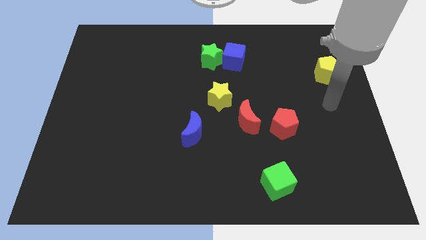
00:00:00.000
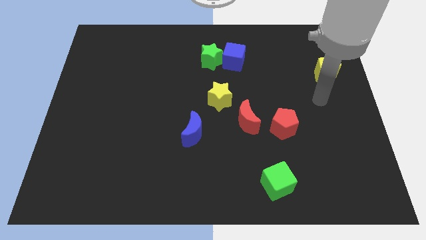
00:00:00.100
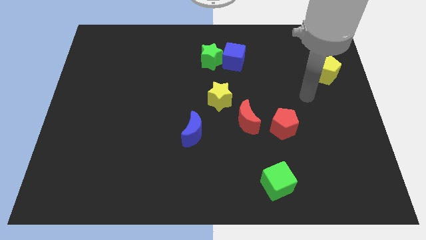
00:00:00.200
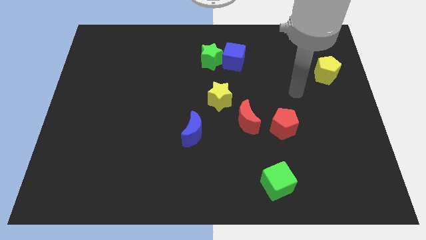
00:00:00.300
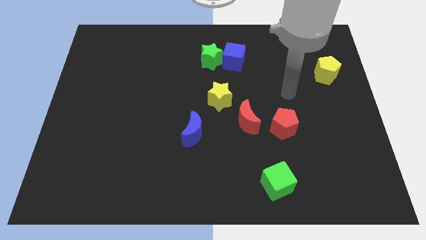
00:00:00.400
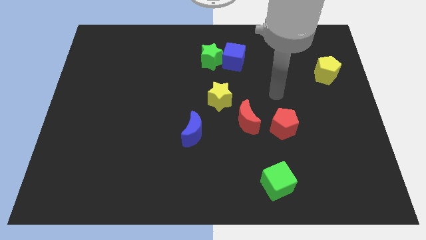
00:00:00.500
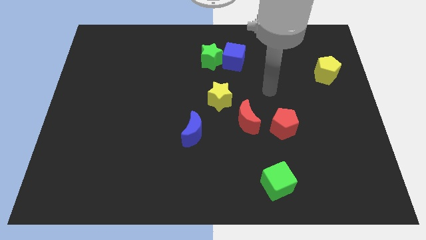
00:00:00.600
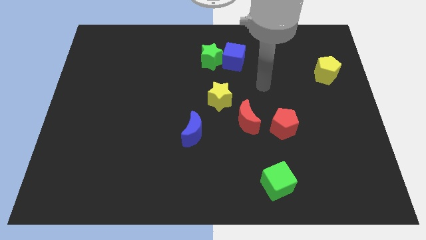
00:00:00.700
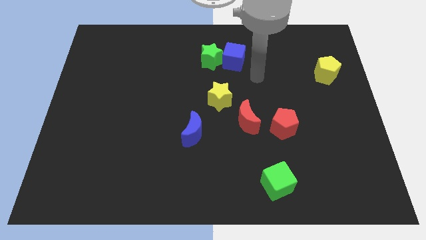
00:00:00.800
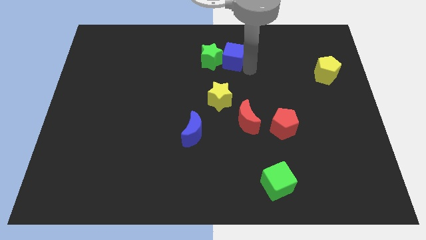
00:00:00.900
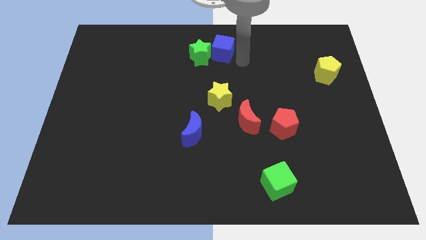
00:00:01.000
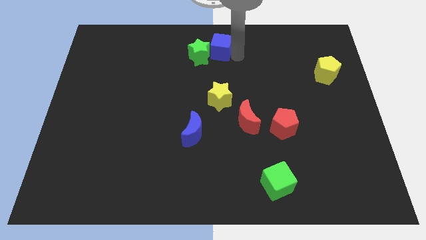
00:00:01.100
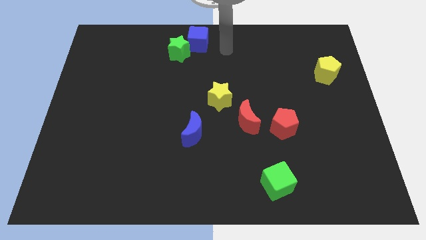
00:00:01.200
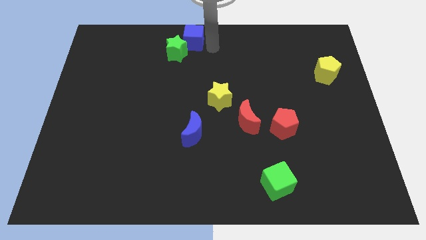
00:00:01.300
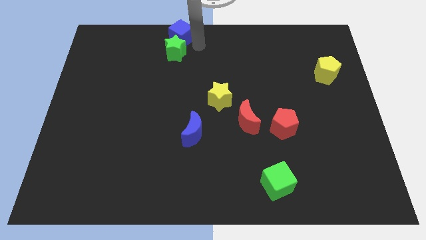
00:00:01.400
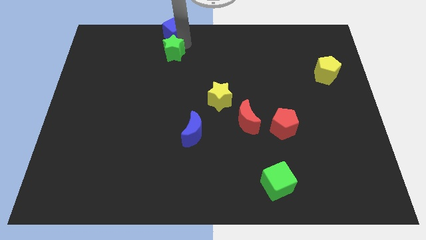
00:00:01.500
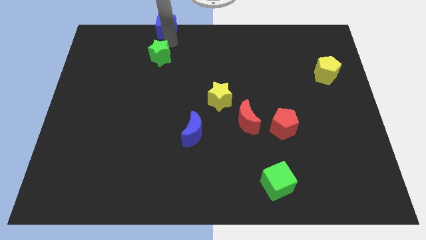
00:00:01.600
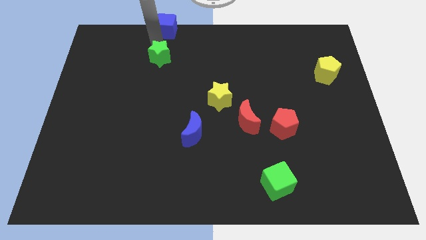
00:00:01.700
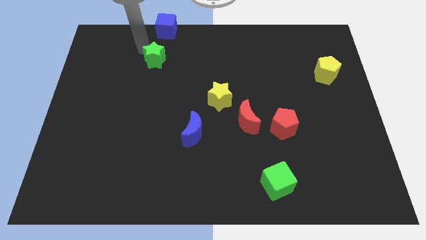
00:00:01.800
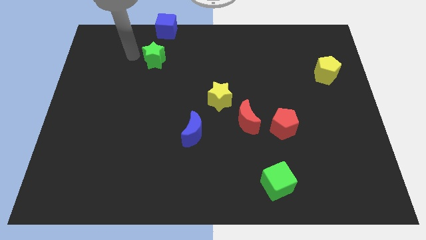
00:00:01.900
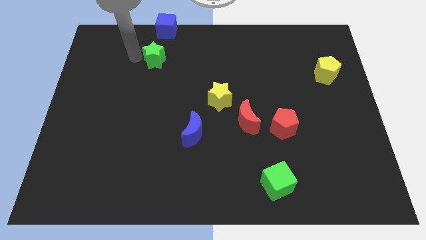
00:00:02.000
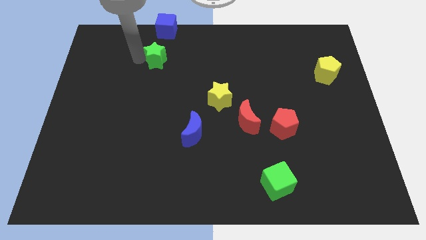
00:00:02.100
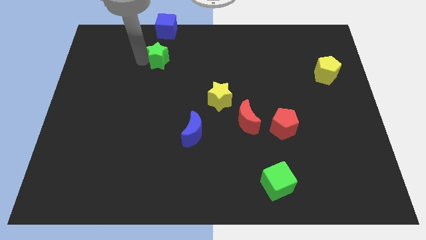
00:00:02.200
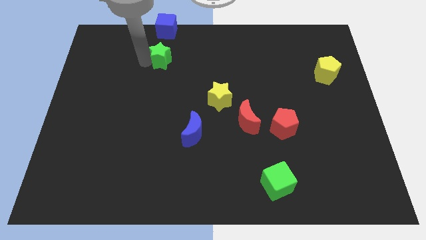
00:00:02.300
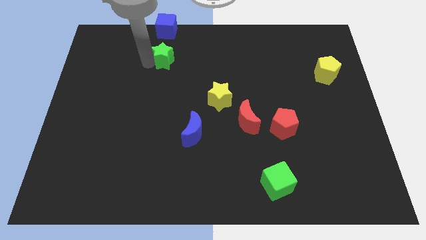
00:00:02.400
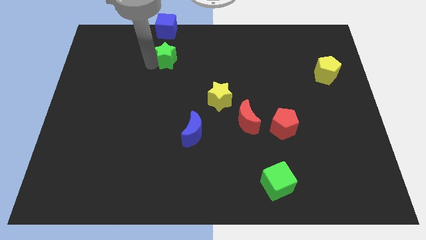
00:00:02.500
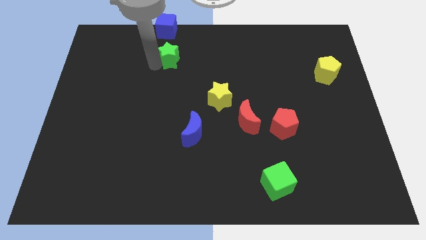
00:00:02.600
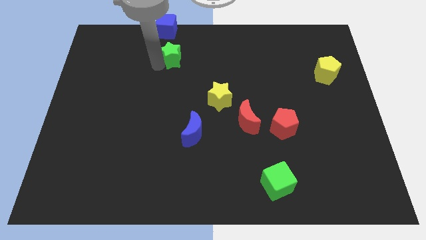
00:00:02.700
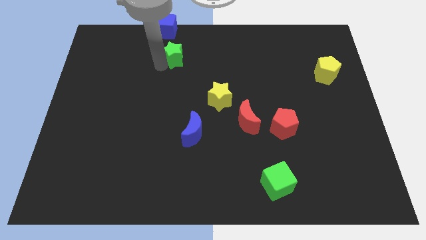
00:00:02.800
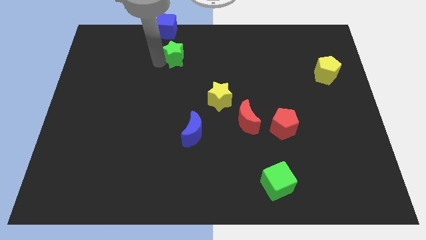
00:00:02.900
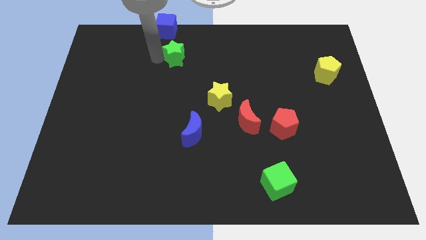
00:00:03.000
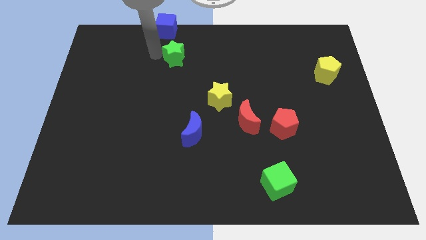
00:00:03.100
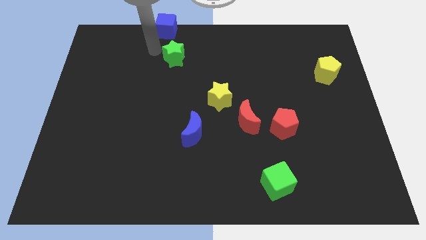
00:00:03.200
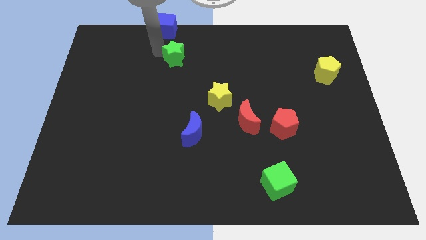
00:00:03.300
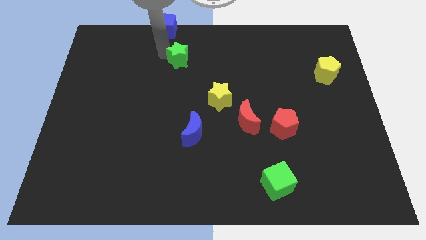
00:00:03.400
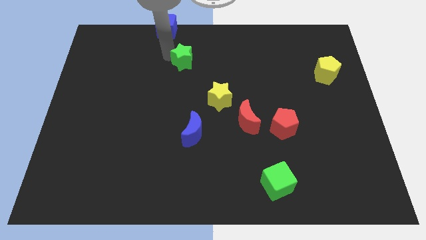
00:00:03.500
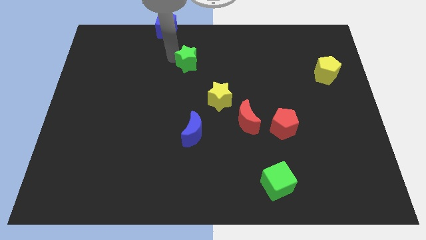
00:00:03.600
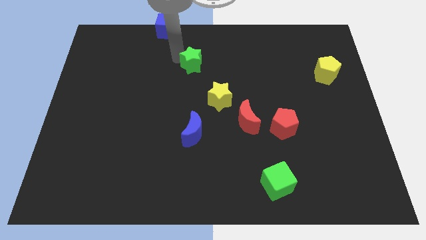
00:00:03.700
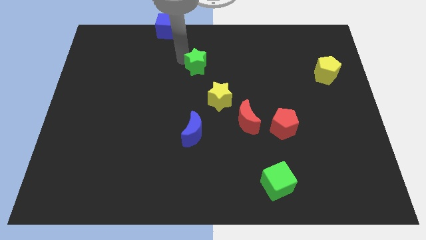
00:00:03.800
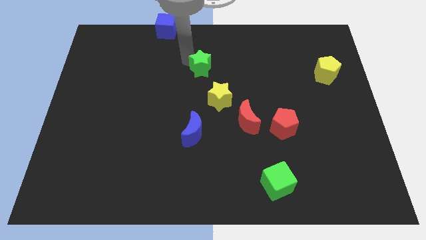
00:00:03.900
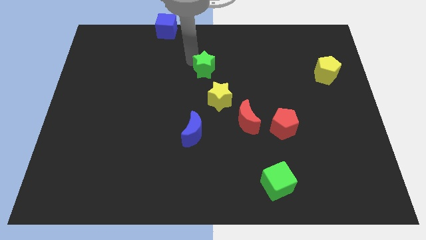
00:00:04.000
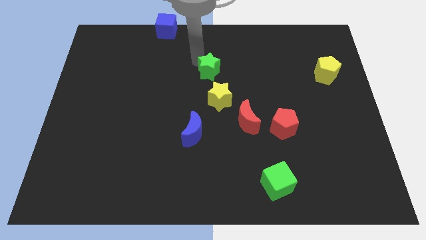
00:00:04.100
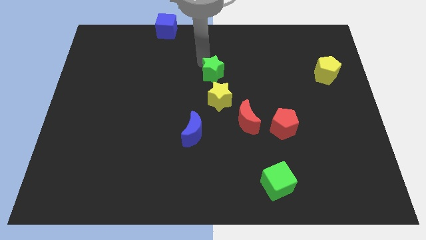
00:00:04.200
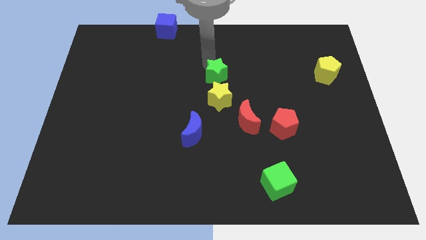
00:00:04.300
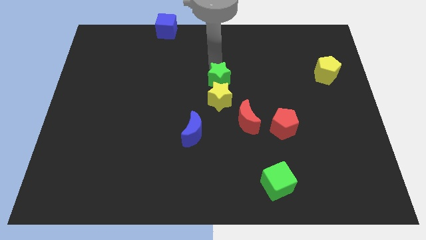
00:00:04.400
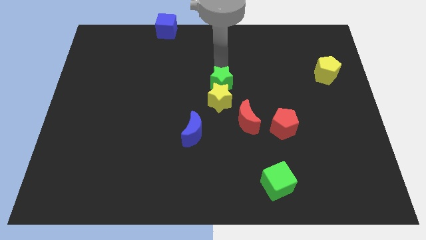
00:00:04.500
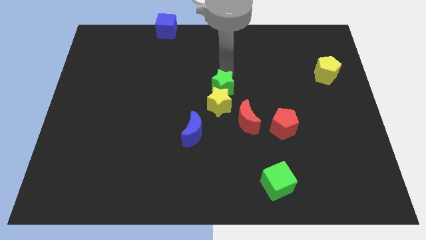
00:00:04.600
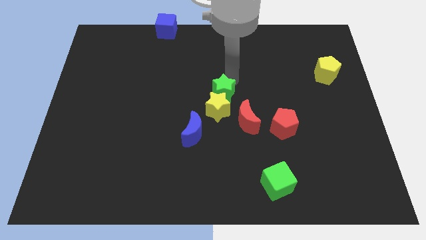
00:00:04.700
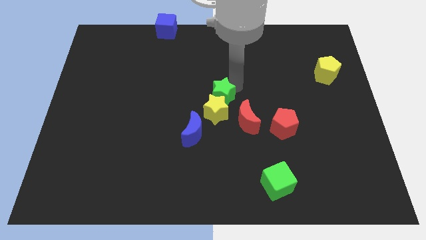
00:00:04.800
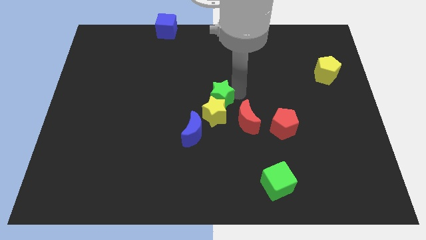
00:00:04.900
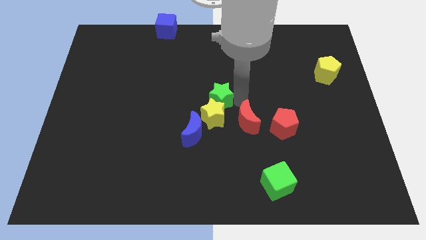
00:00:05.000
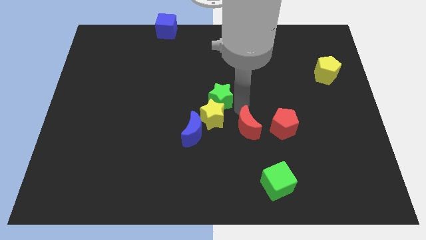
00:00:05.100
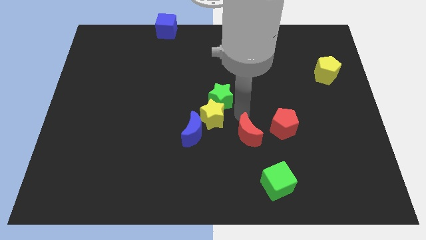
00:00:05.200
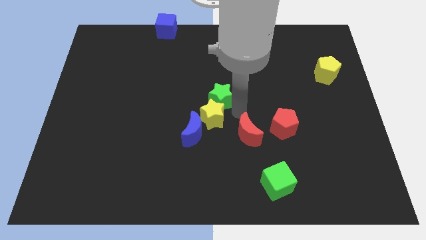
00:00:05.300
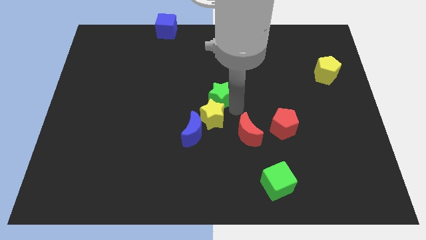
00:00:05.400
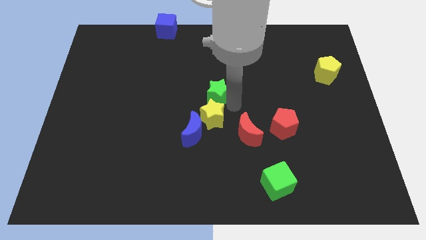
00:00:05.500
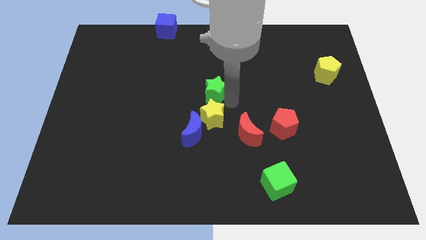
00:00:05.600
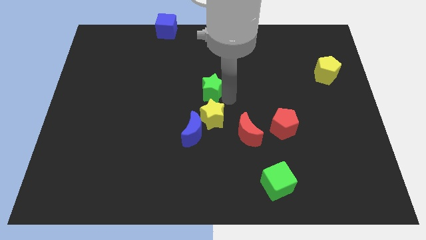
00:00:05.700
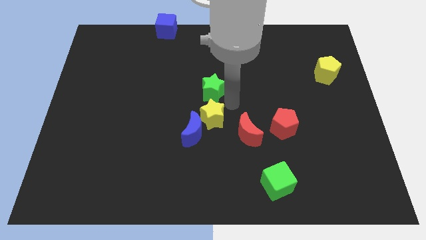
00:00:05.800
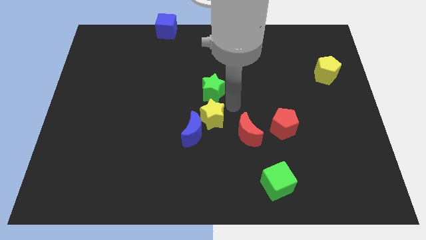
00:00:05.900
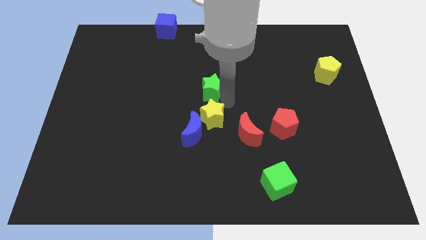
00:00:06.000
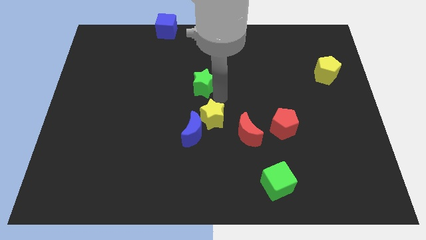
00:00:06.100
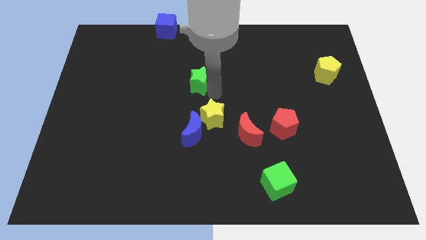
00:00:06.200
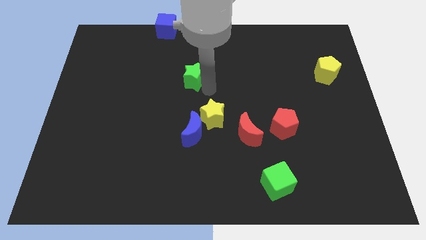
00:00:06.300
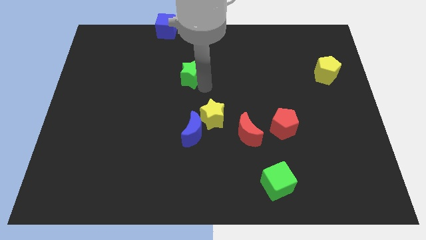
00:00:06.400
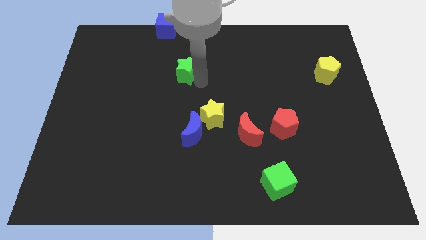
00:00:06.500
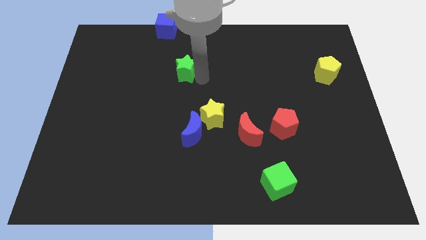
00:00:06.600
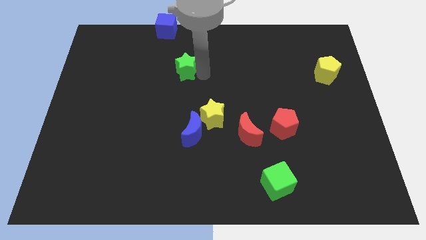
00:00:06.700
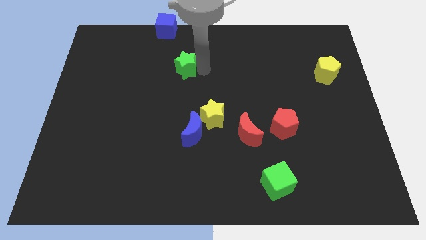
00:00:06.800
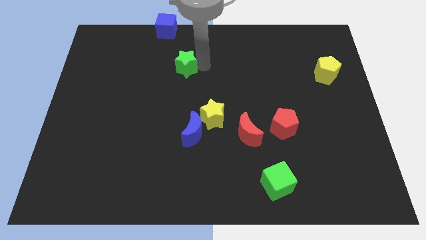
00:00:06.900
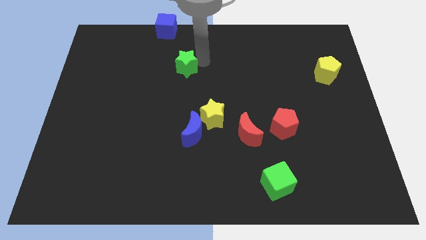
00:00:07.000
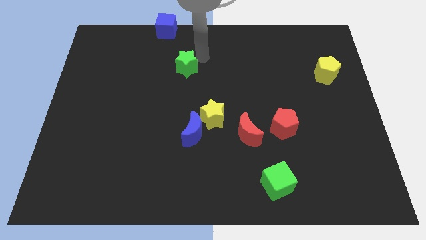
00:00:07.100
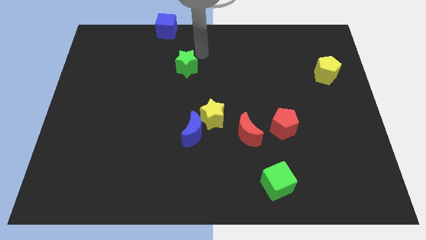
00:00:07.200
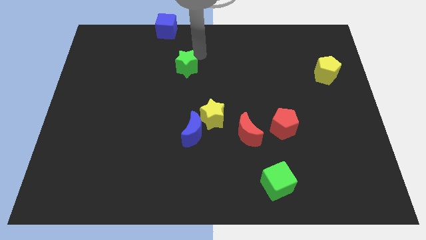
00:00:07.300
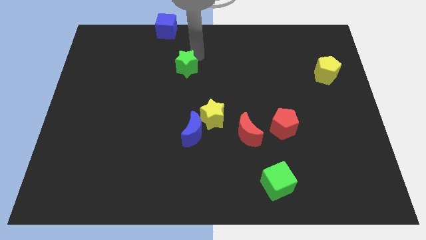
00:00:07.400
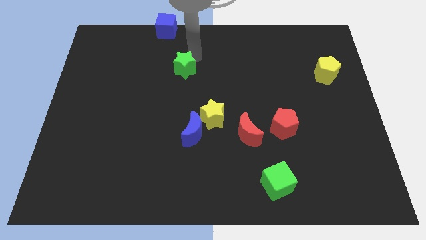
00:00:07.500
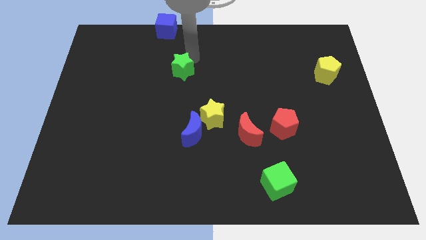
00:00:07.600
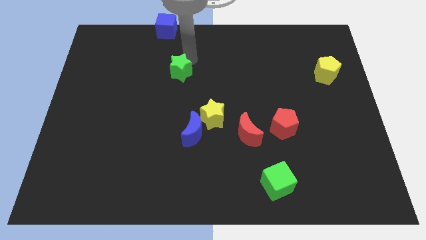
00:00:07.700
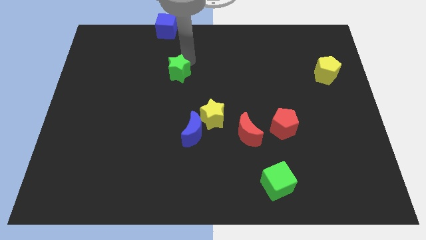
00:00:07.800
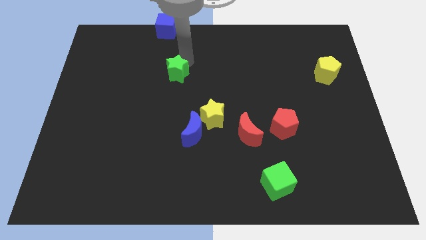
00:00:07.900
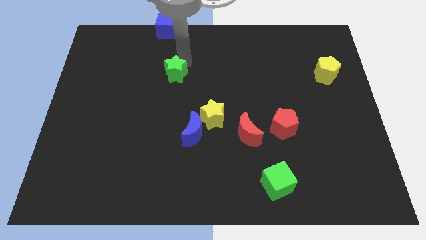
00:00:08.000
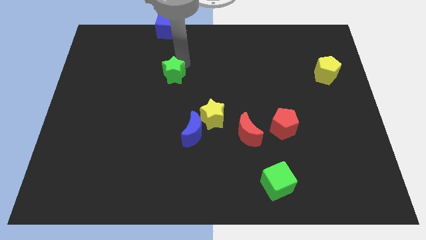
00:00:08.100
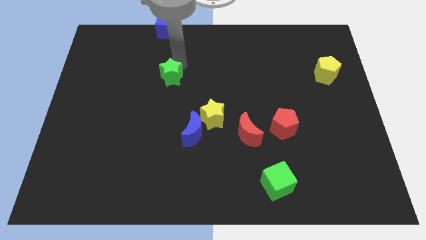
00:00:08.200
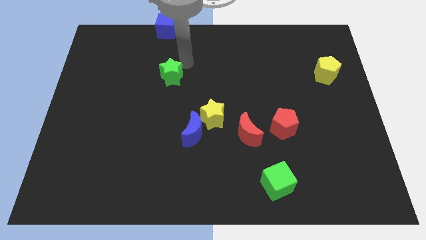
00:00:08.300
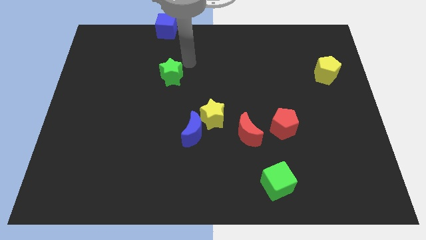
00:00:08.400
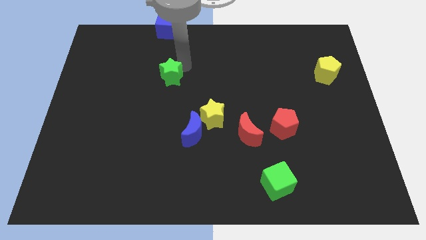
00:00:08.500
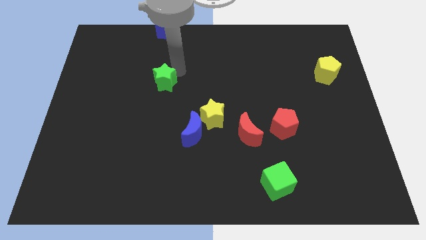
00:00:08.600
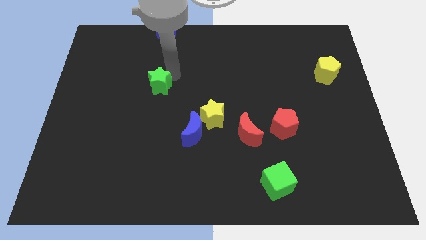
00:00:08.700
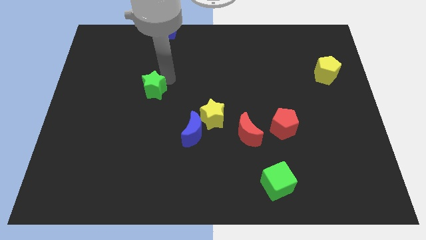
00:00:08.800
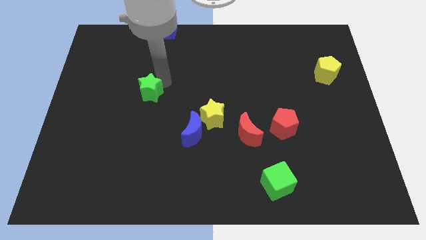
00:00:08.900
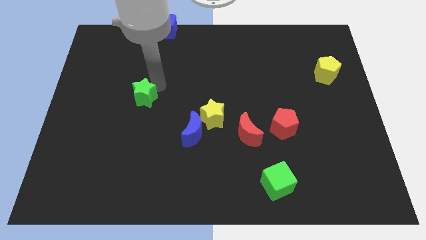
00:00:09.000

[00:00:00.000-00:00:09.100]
slide the green star down and to the left
